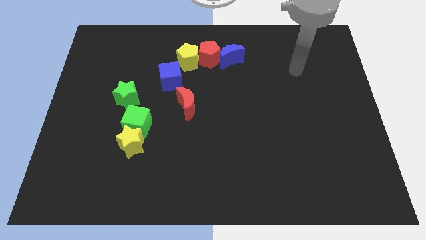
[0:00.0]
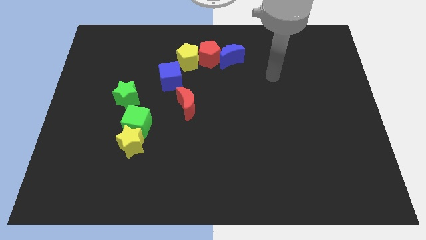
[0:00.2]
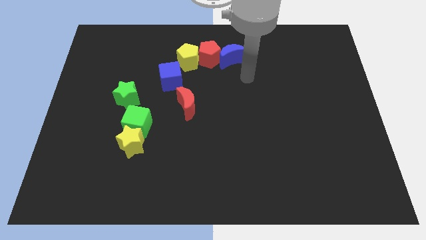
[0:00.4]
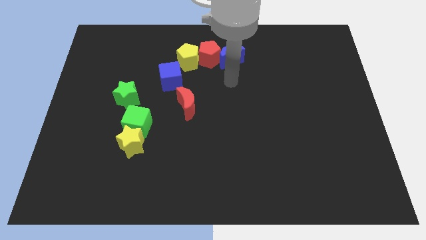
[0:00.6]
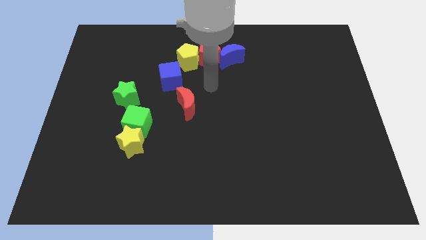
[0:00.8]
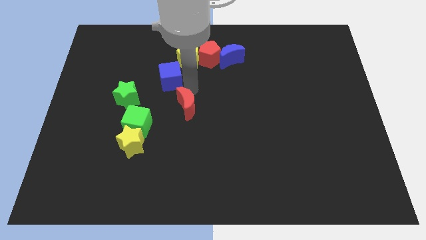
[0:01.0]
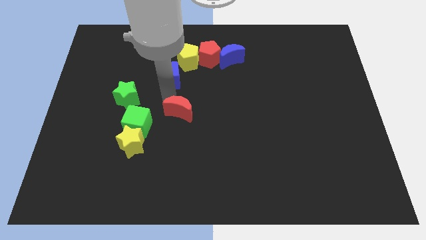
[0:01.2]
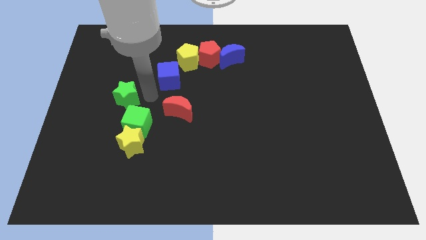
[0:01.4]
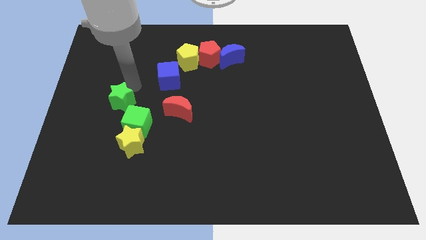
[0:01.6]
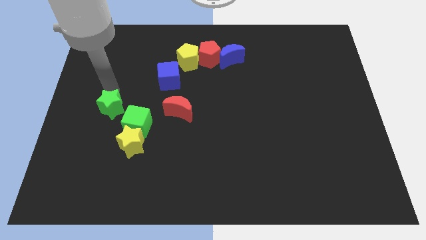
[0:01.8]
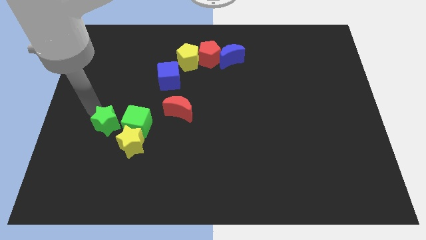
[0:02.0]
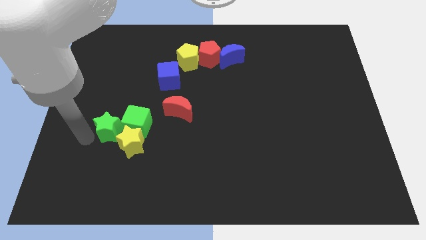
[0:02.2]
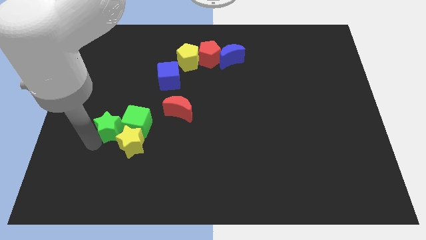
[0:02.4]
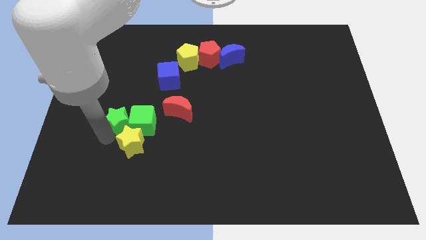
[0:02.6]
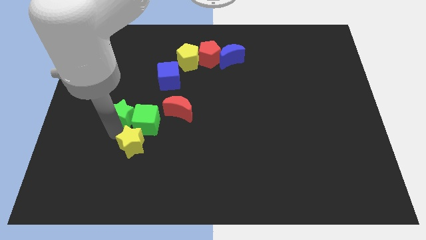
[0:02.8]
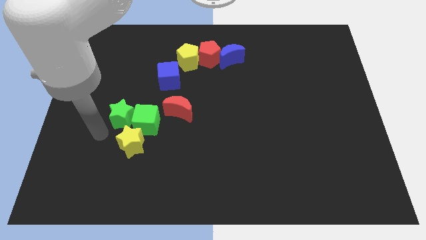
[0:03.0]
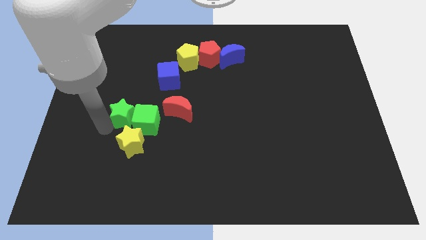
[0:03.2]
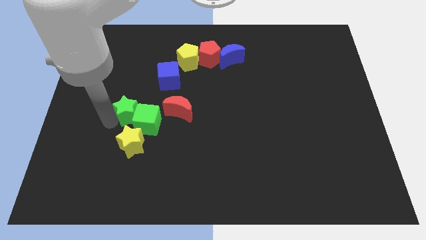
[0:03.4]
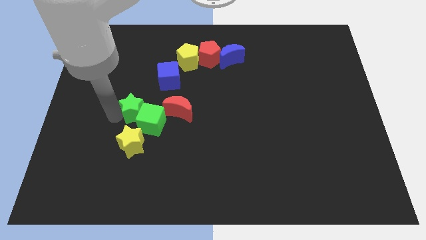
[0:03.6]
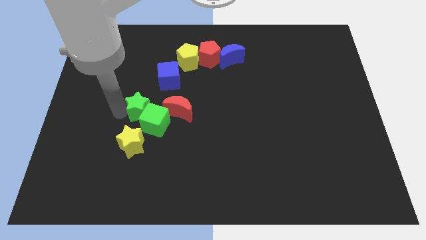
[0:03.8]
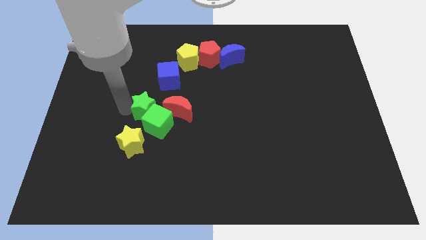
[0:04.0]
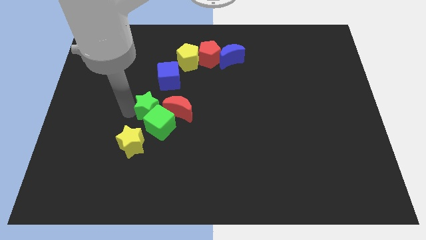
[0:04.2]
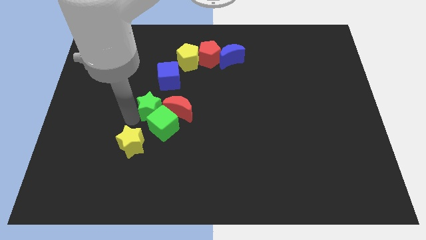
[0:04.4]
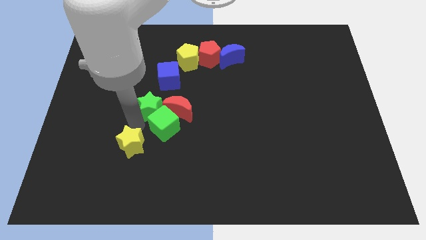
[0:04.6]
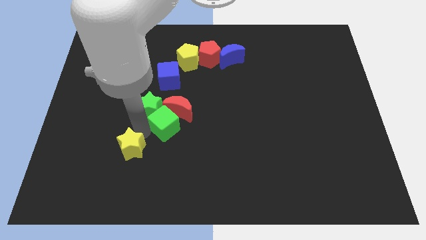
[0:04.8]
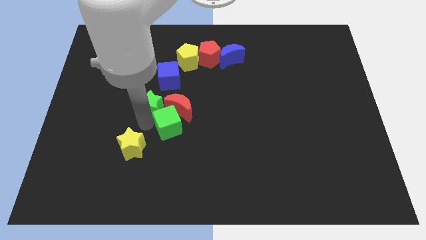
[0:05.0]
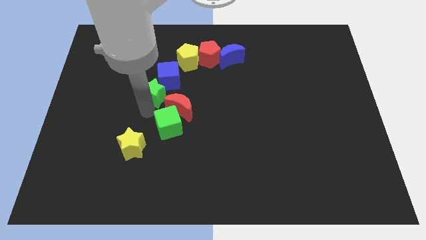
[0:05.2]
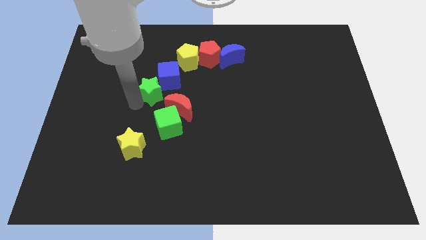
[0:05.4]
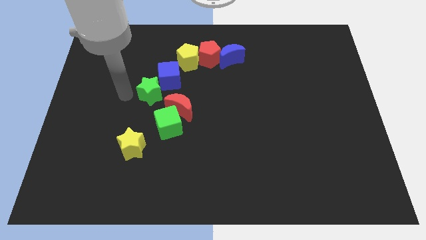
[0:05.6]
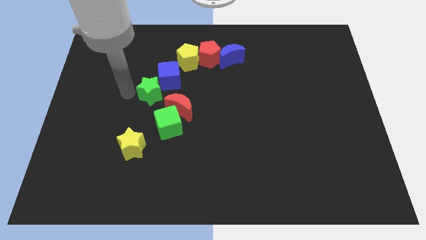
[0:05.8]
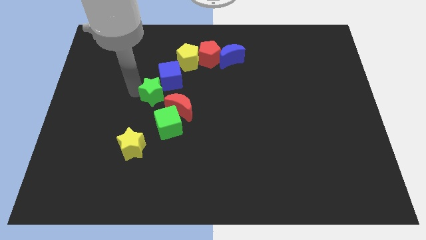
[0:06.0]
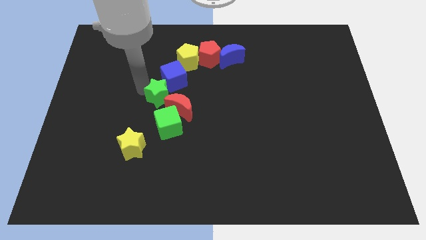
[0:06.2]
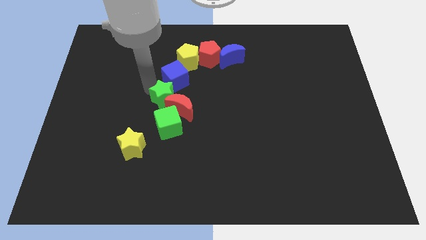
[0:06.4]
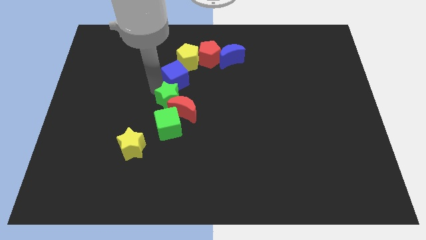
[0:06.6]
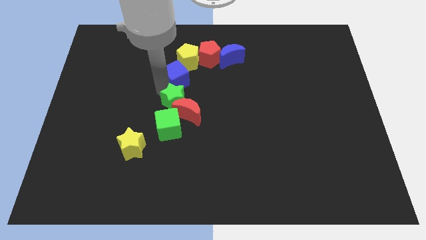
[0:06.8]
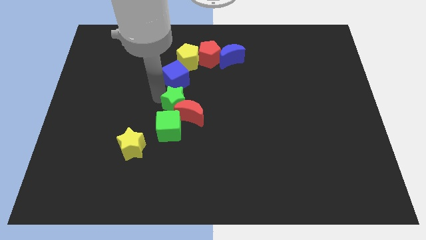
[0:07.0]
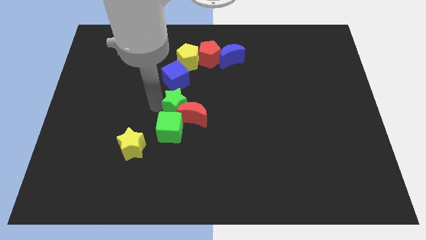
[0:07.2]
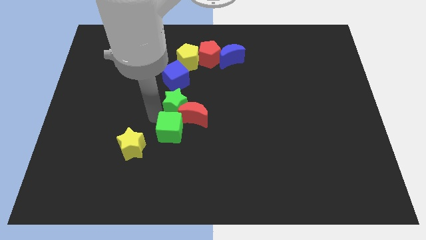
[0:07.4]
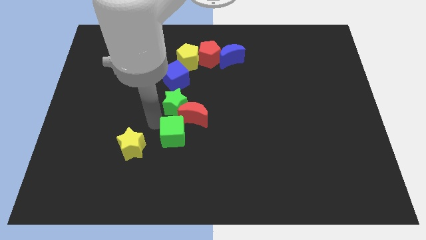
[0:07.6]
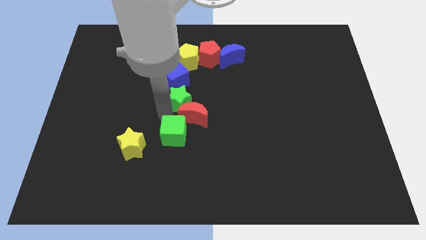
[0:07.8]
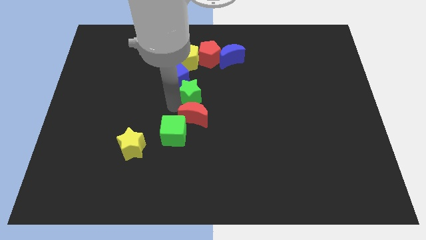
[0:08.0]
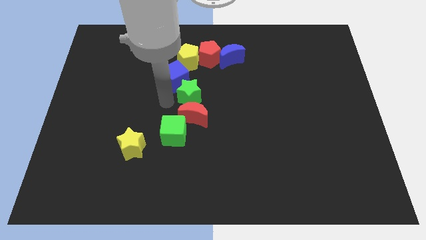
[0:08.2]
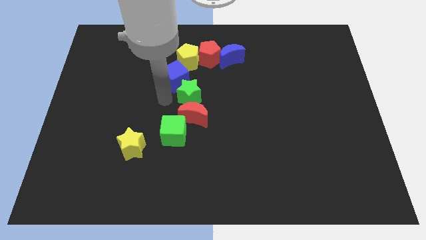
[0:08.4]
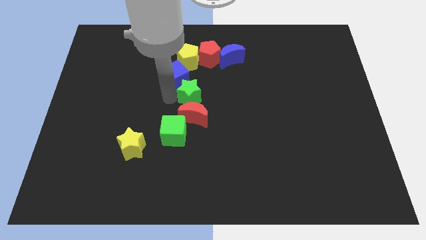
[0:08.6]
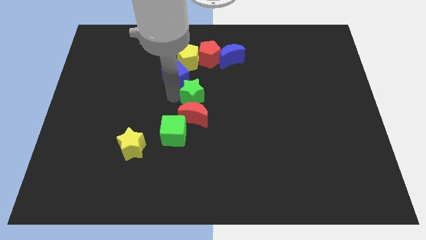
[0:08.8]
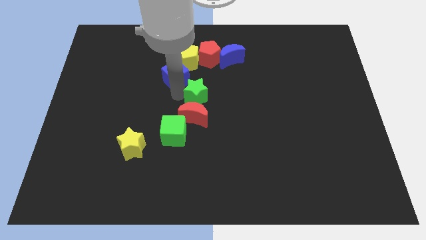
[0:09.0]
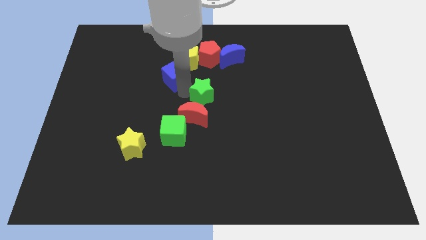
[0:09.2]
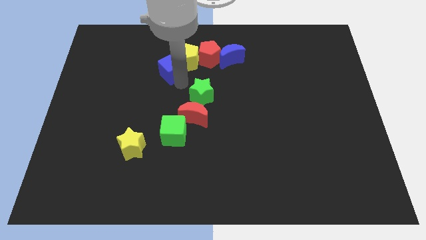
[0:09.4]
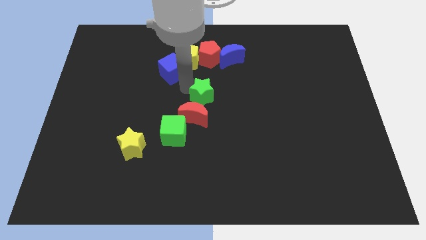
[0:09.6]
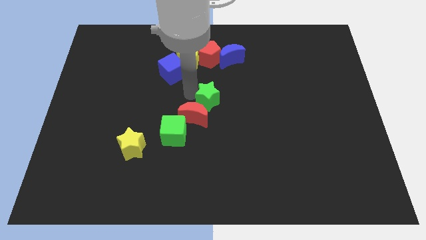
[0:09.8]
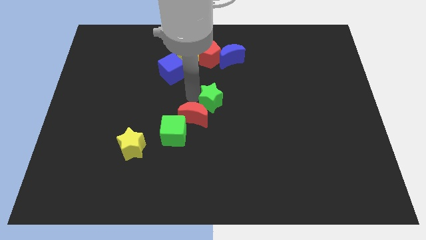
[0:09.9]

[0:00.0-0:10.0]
put the green star to the right side of the red moon

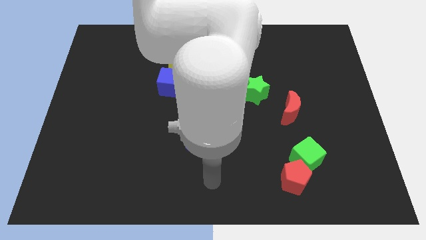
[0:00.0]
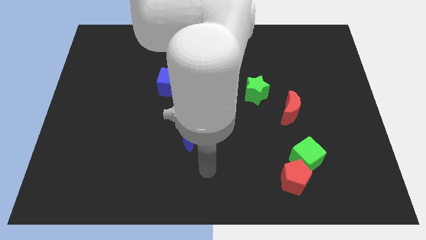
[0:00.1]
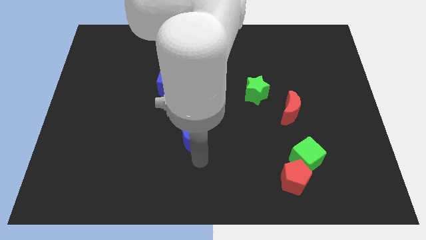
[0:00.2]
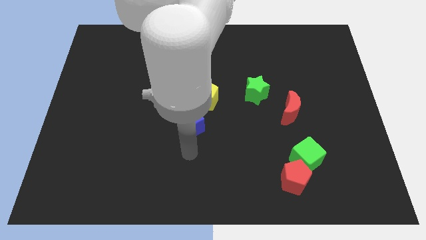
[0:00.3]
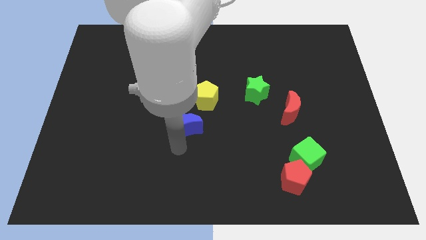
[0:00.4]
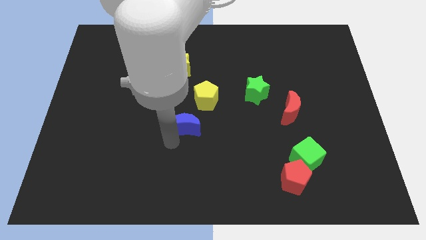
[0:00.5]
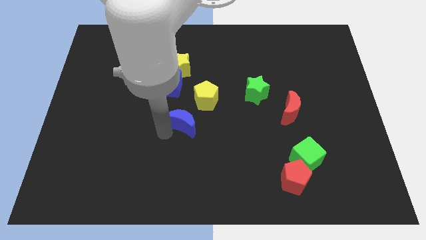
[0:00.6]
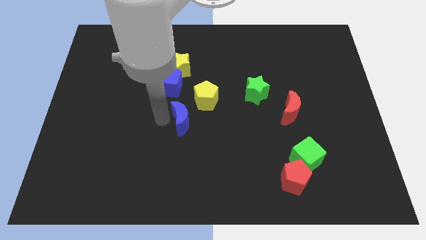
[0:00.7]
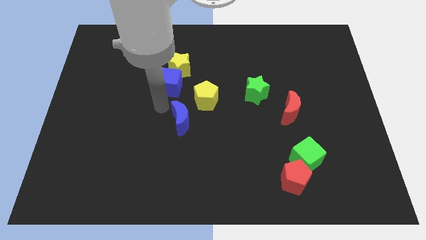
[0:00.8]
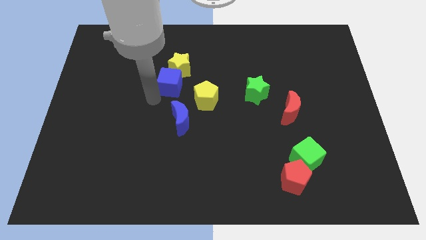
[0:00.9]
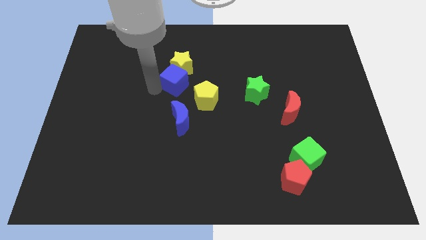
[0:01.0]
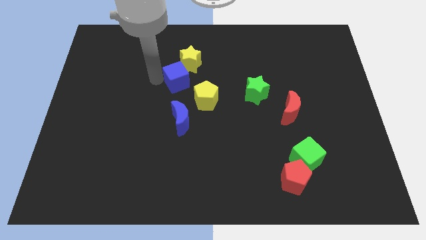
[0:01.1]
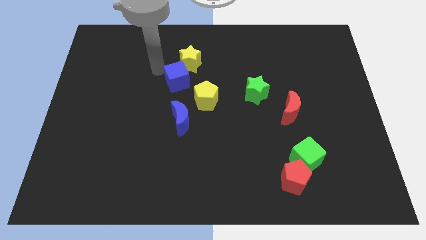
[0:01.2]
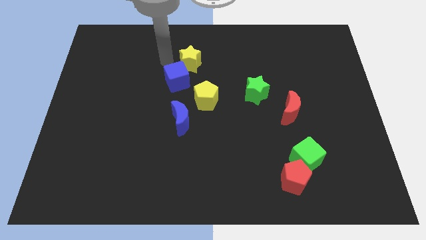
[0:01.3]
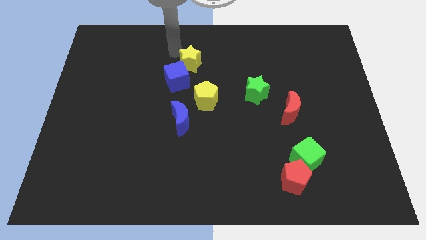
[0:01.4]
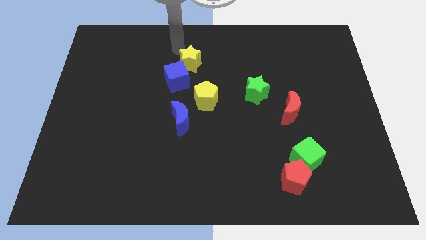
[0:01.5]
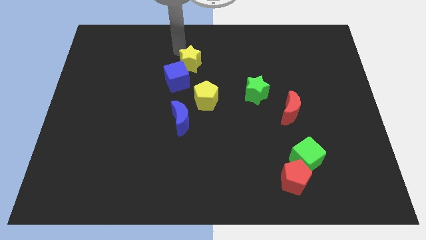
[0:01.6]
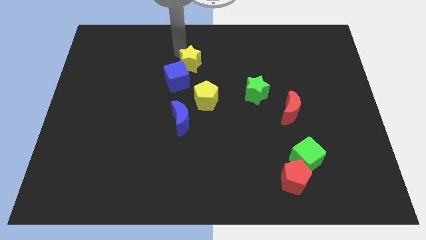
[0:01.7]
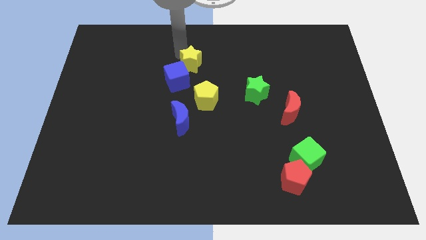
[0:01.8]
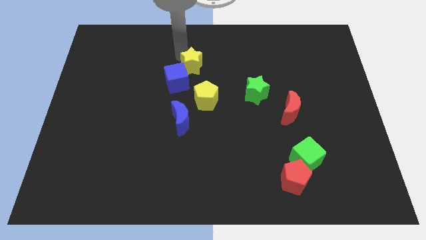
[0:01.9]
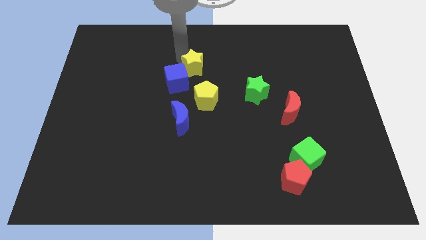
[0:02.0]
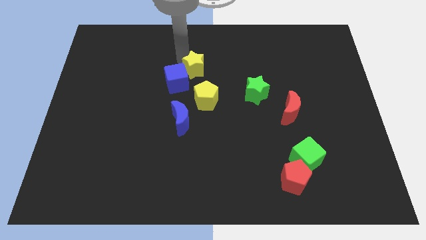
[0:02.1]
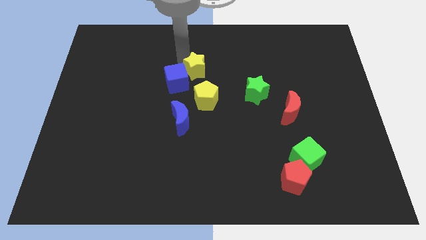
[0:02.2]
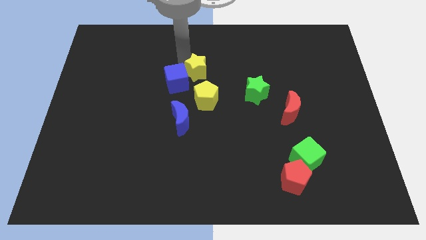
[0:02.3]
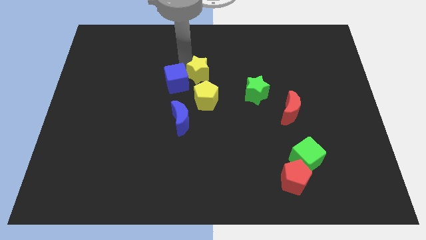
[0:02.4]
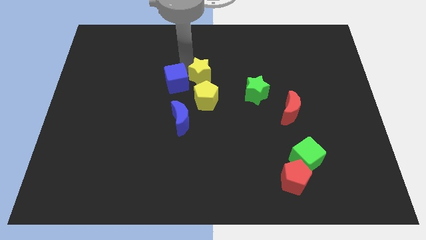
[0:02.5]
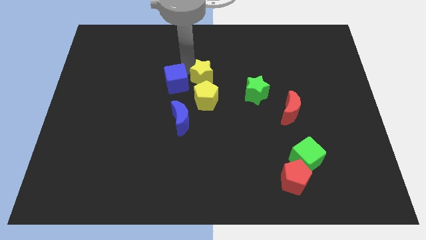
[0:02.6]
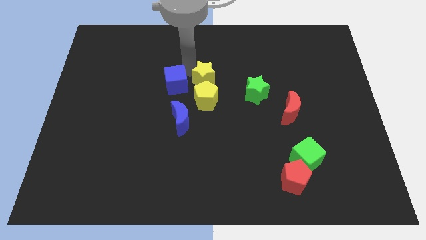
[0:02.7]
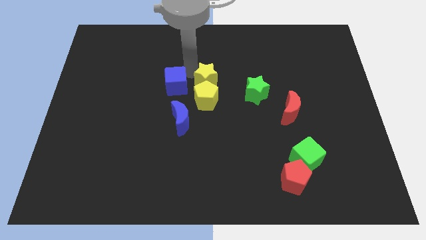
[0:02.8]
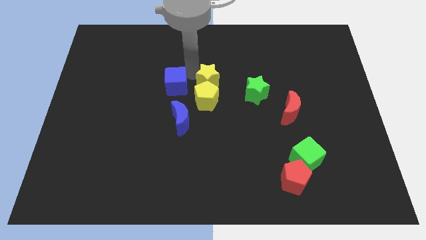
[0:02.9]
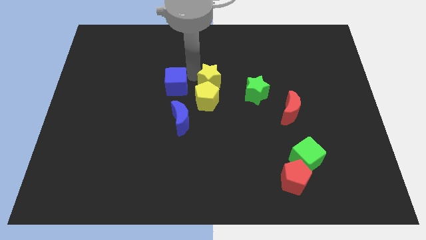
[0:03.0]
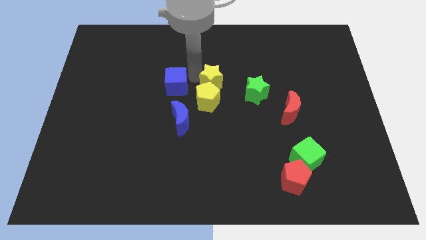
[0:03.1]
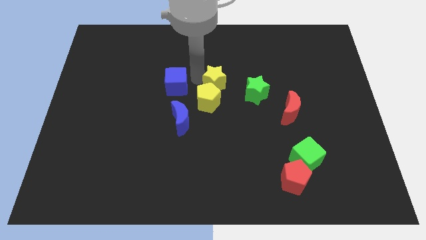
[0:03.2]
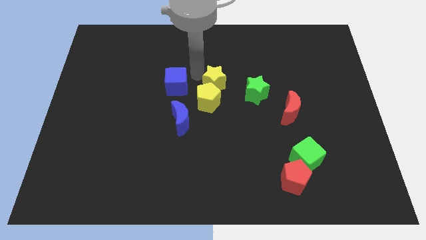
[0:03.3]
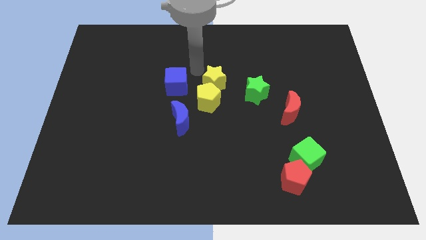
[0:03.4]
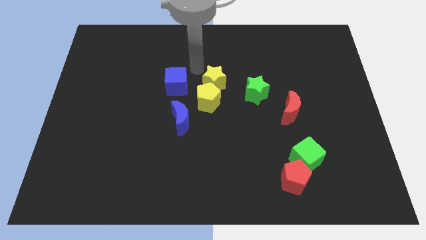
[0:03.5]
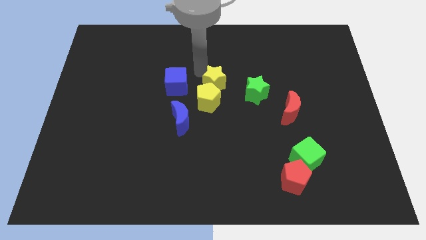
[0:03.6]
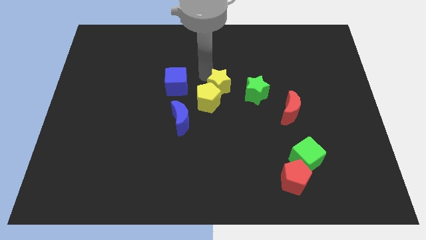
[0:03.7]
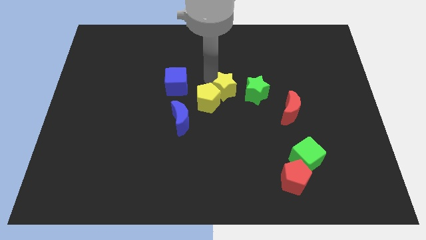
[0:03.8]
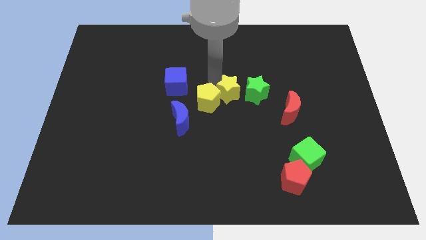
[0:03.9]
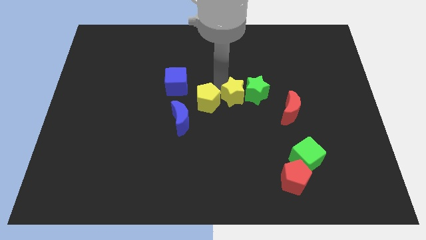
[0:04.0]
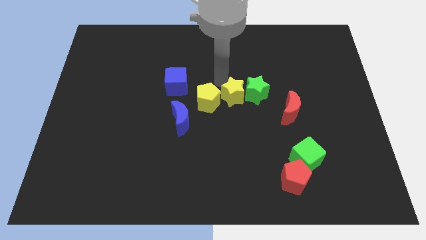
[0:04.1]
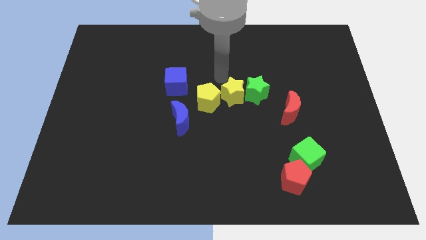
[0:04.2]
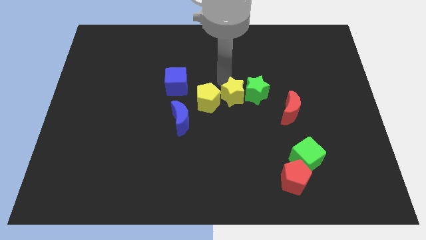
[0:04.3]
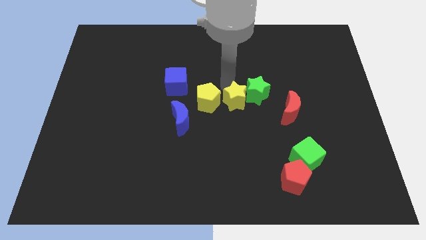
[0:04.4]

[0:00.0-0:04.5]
put the yellow star just left of the red moon
